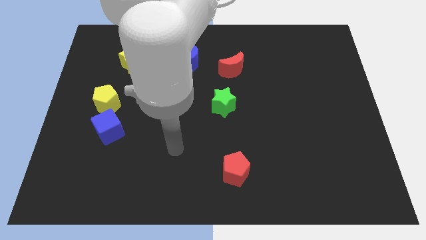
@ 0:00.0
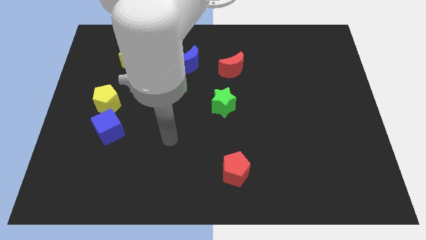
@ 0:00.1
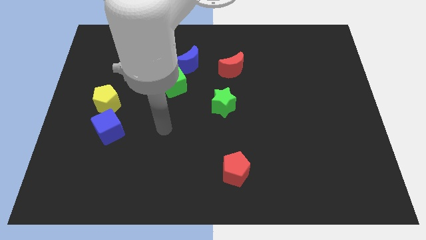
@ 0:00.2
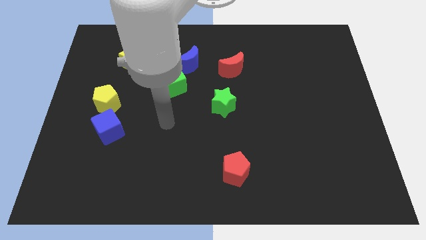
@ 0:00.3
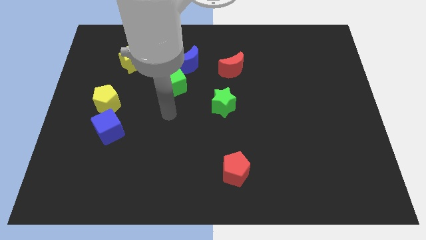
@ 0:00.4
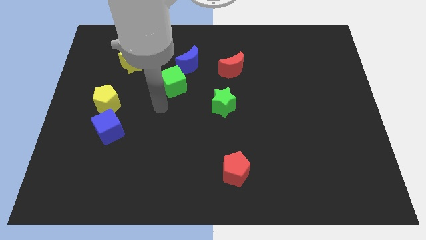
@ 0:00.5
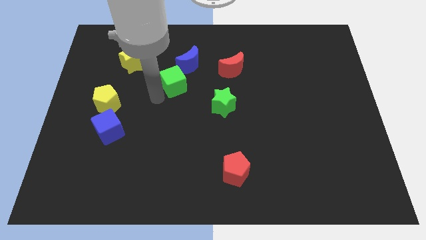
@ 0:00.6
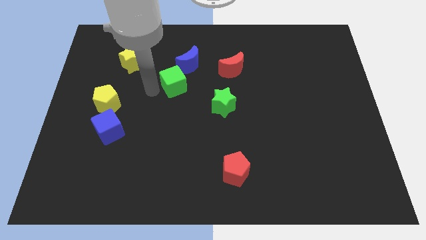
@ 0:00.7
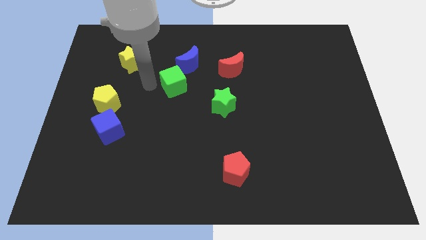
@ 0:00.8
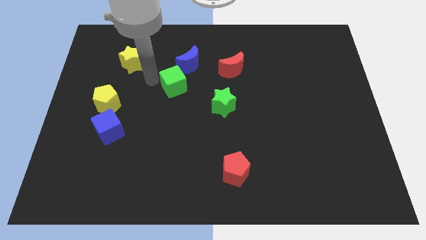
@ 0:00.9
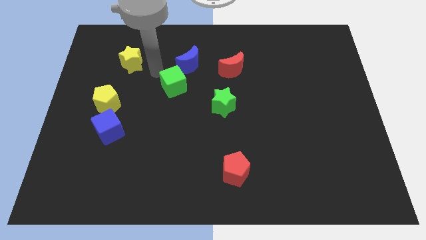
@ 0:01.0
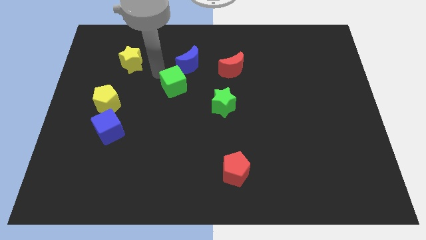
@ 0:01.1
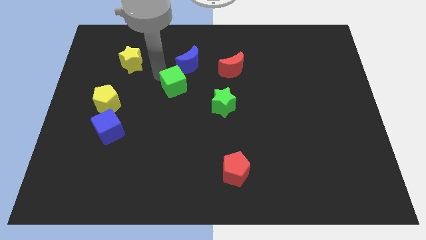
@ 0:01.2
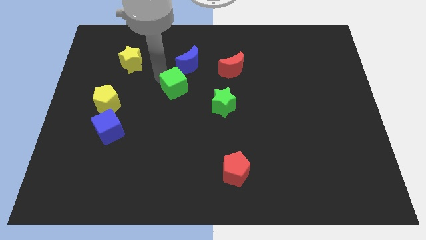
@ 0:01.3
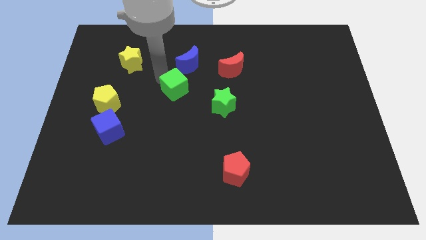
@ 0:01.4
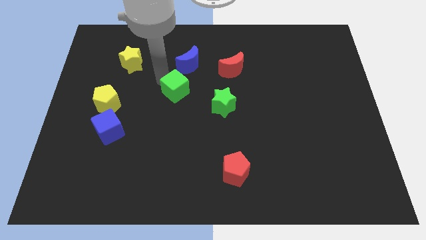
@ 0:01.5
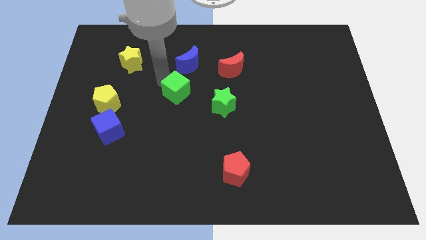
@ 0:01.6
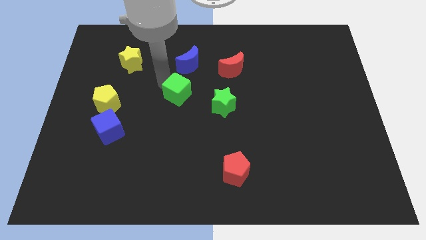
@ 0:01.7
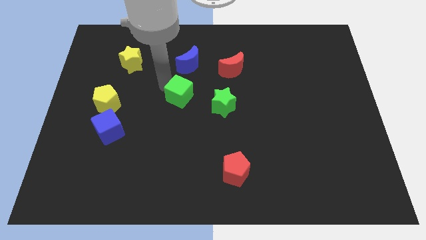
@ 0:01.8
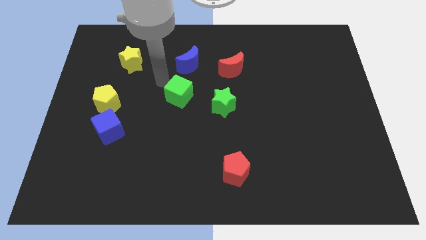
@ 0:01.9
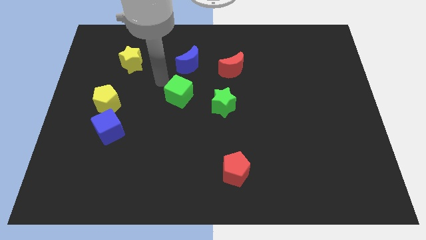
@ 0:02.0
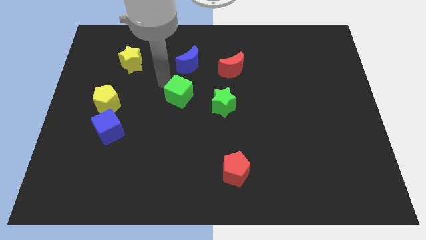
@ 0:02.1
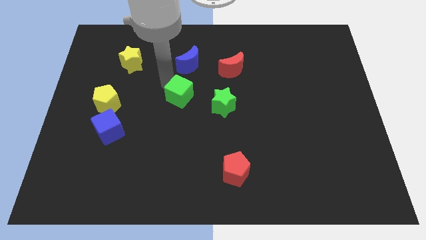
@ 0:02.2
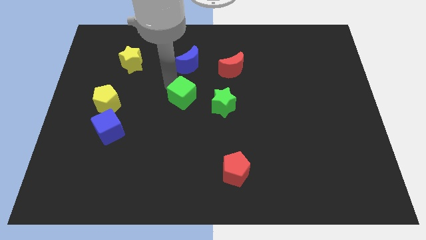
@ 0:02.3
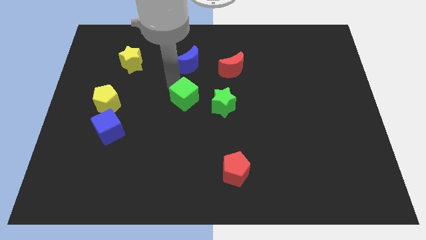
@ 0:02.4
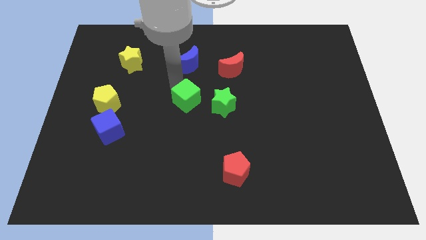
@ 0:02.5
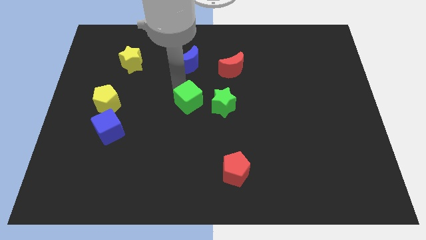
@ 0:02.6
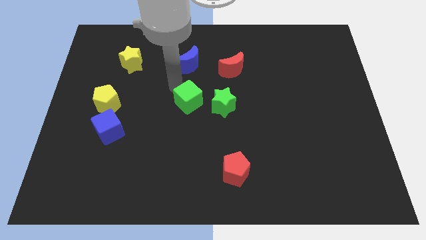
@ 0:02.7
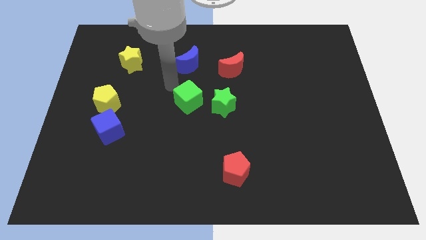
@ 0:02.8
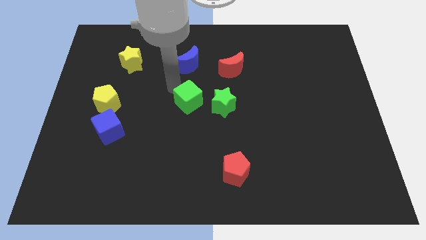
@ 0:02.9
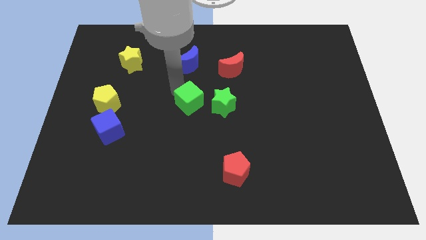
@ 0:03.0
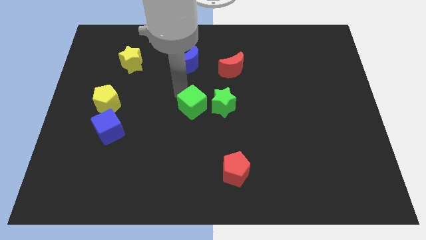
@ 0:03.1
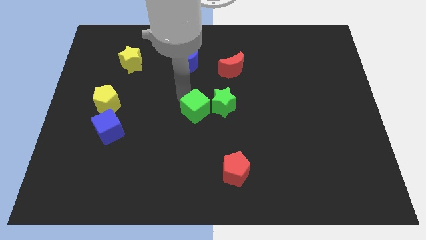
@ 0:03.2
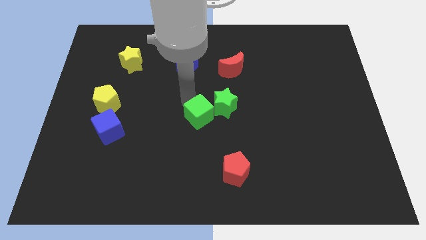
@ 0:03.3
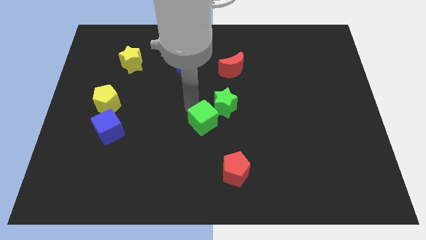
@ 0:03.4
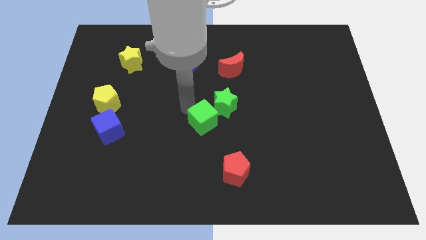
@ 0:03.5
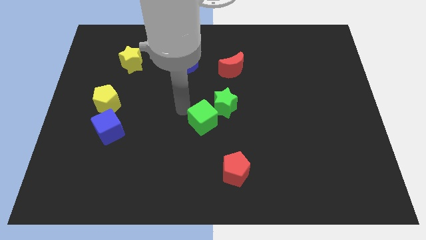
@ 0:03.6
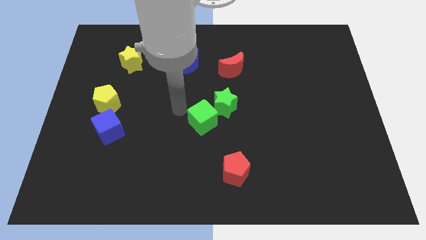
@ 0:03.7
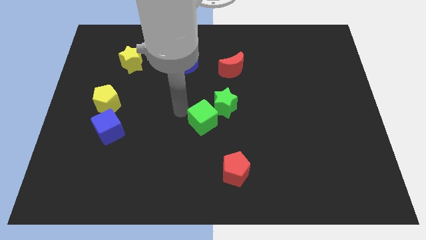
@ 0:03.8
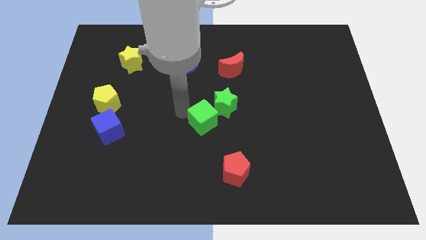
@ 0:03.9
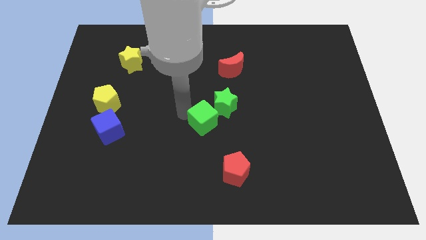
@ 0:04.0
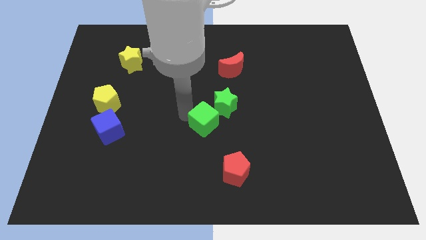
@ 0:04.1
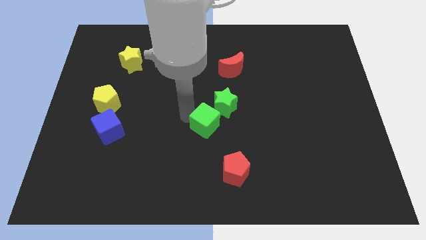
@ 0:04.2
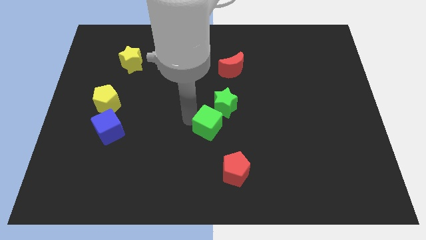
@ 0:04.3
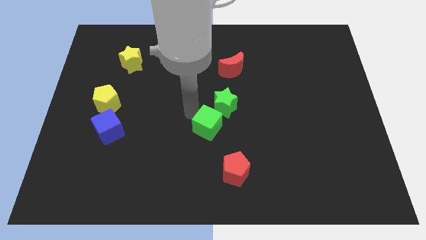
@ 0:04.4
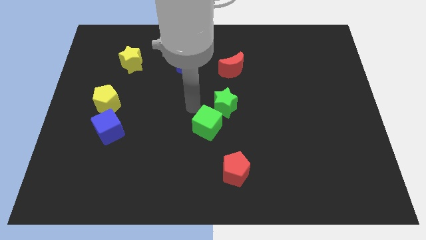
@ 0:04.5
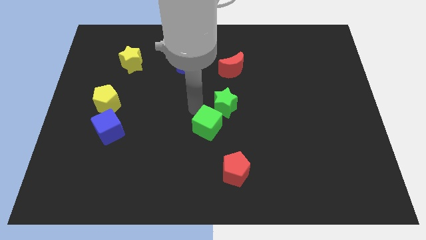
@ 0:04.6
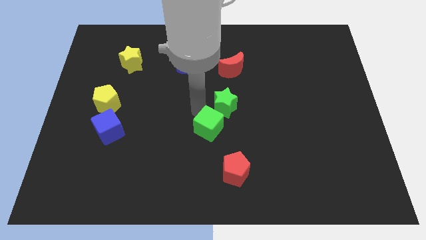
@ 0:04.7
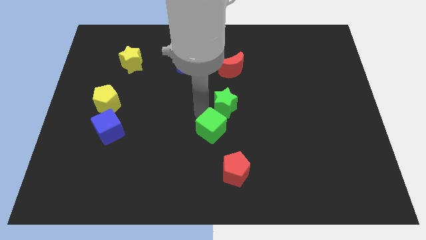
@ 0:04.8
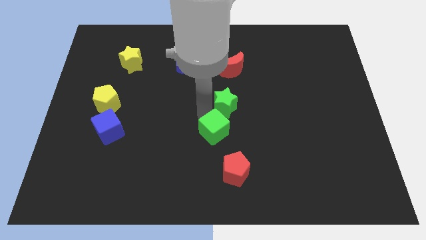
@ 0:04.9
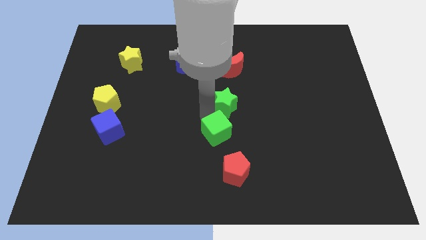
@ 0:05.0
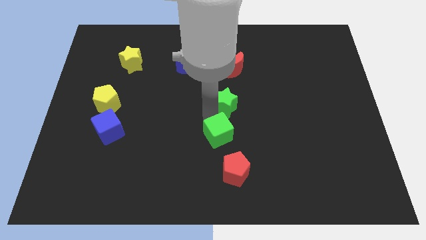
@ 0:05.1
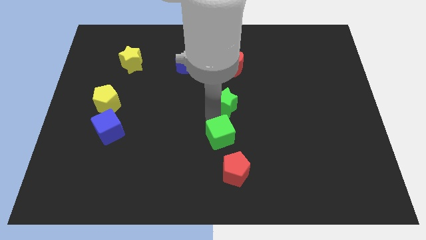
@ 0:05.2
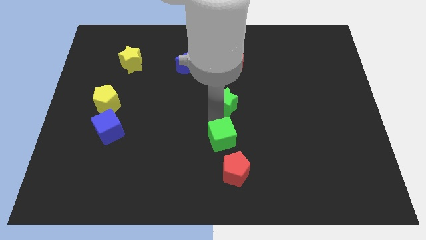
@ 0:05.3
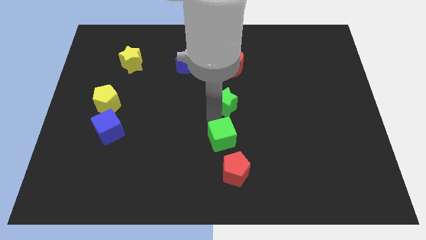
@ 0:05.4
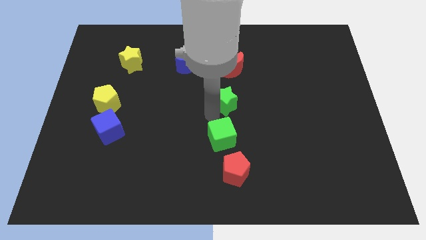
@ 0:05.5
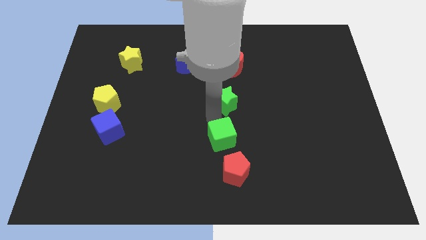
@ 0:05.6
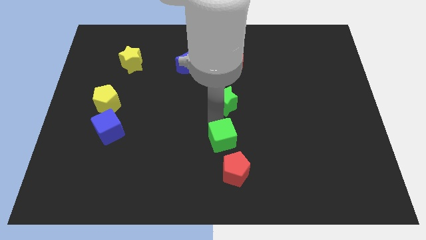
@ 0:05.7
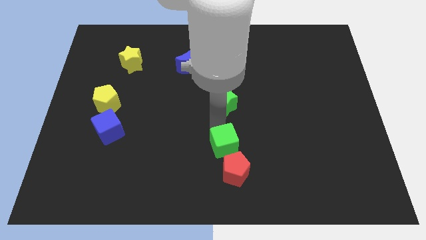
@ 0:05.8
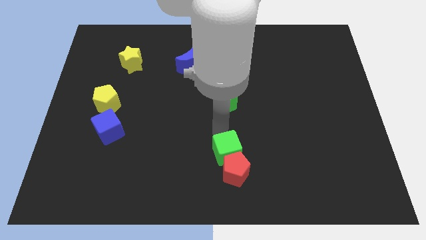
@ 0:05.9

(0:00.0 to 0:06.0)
put the green cube to the red pentagon

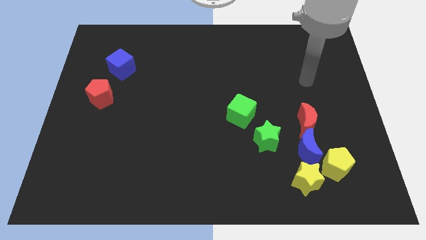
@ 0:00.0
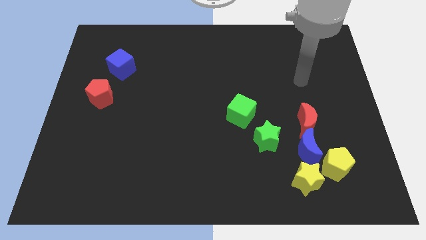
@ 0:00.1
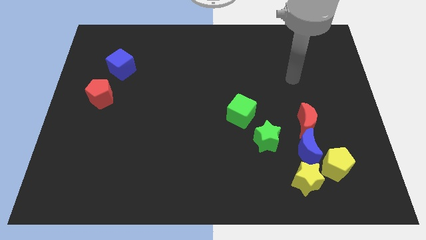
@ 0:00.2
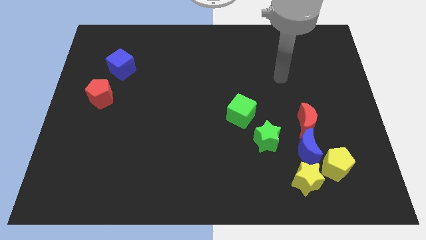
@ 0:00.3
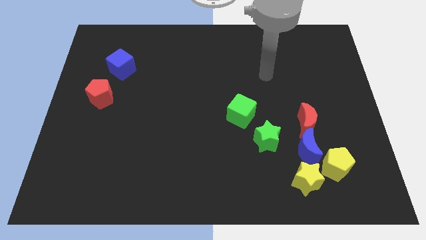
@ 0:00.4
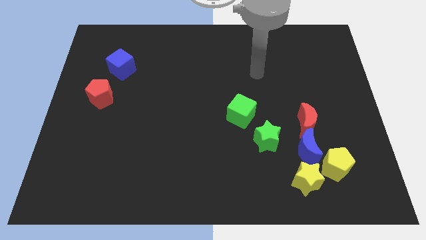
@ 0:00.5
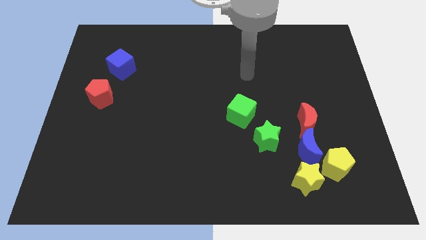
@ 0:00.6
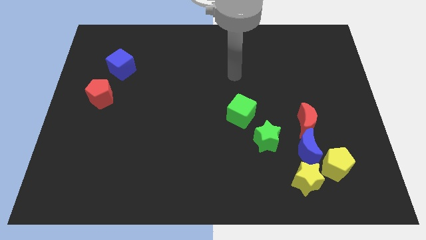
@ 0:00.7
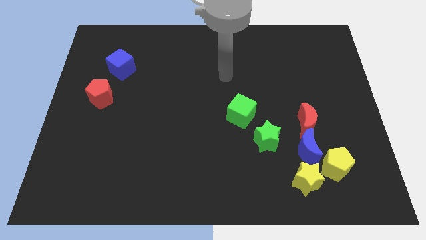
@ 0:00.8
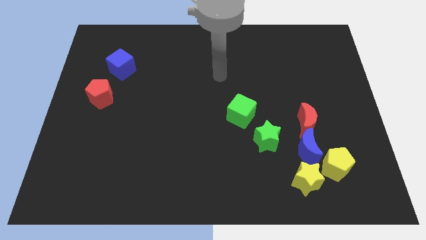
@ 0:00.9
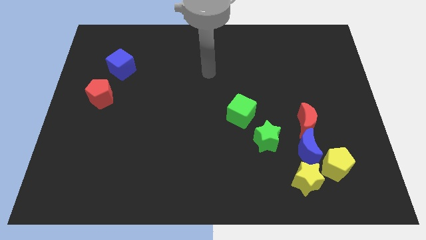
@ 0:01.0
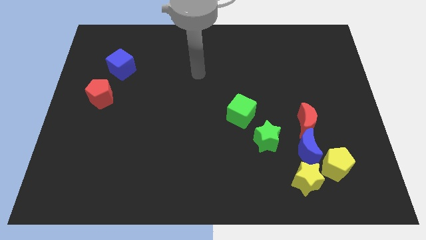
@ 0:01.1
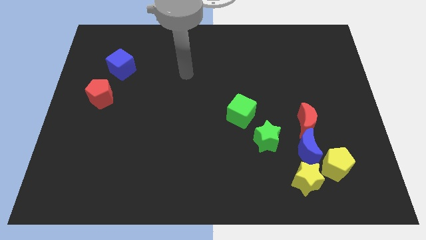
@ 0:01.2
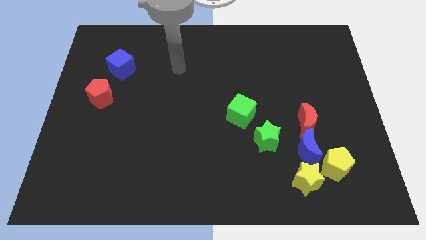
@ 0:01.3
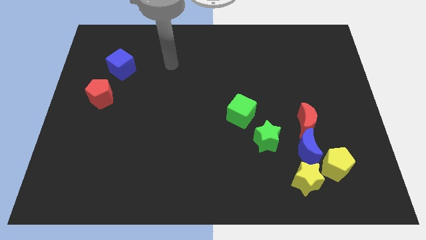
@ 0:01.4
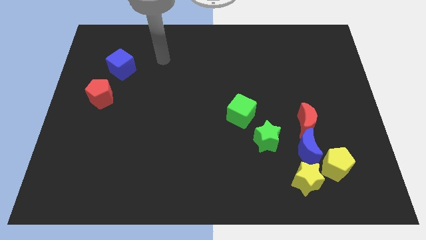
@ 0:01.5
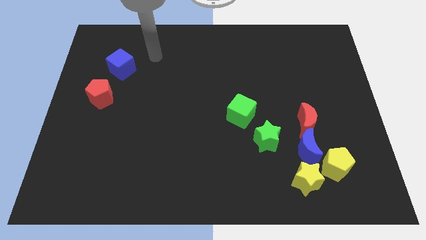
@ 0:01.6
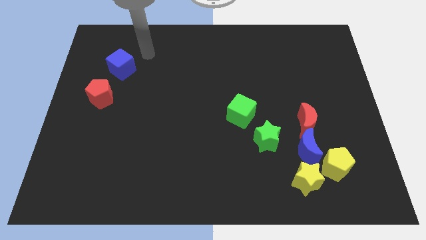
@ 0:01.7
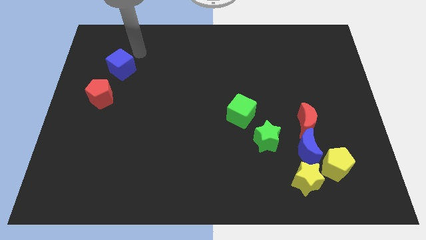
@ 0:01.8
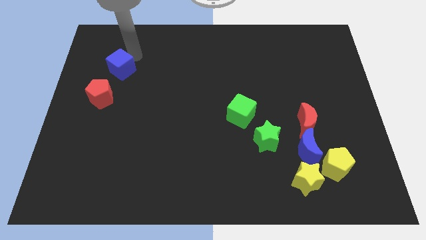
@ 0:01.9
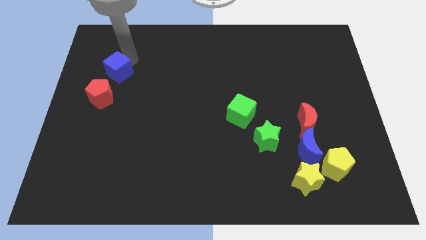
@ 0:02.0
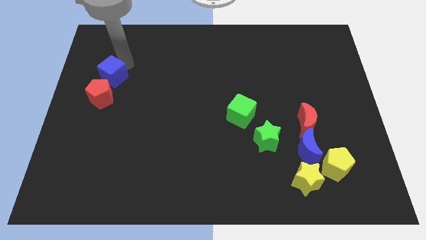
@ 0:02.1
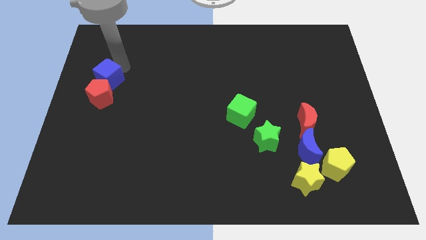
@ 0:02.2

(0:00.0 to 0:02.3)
put the blue cube towards the red pentagon
